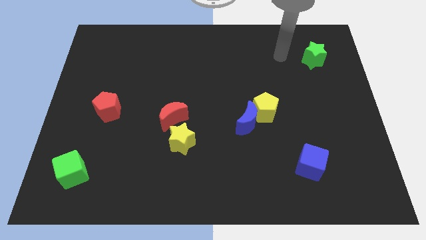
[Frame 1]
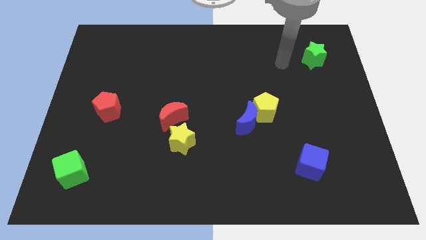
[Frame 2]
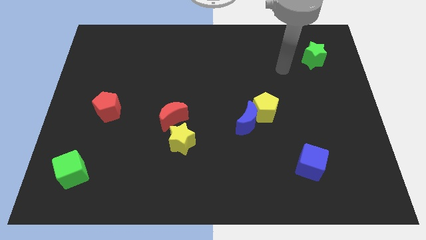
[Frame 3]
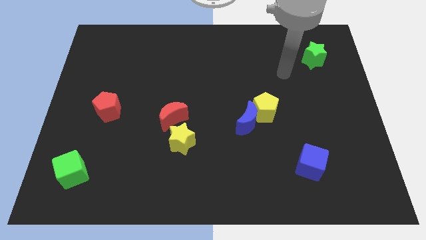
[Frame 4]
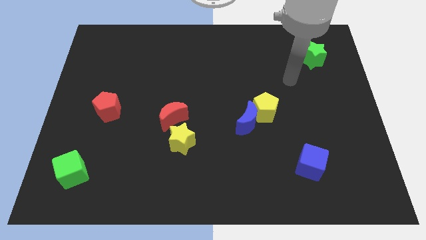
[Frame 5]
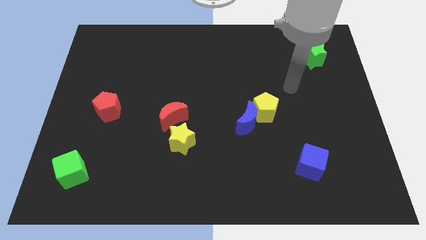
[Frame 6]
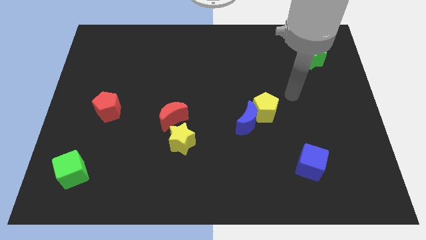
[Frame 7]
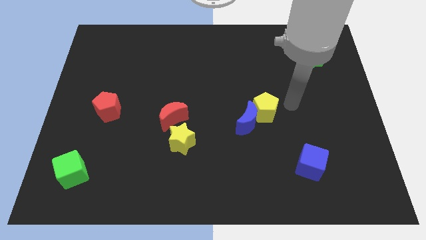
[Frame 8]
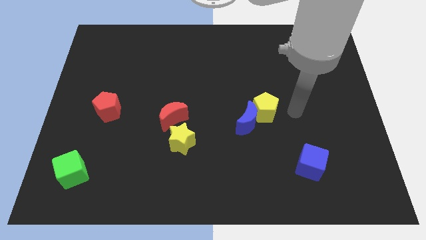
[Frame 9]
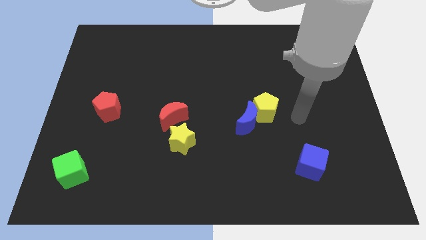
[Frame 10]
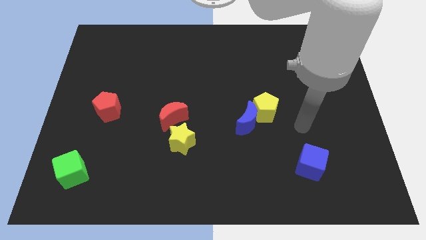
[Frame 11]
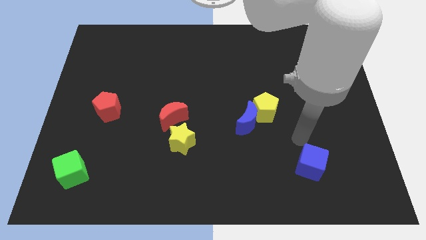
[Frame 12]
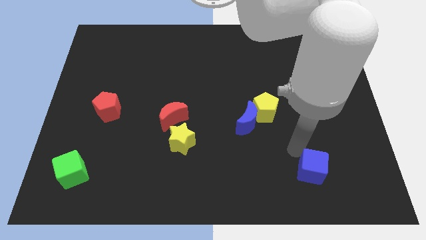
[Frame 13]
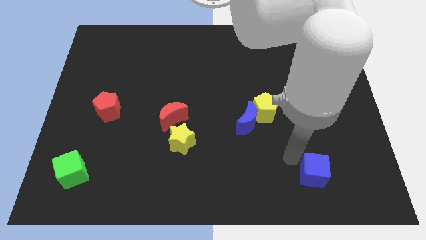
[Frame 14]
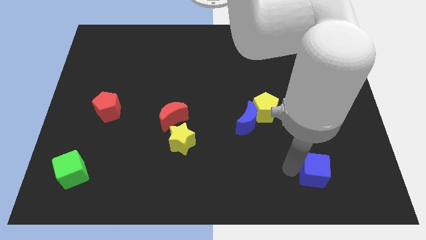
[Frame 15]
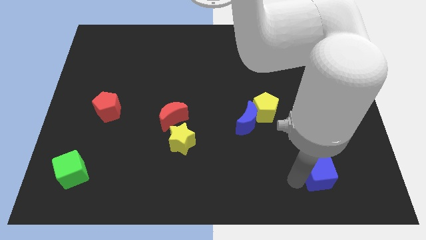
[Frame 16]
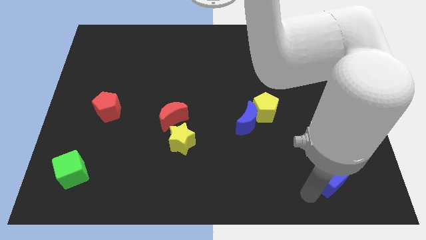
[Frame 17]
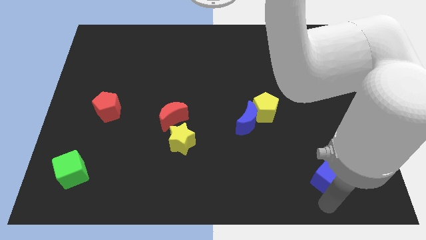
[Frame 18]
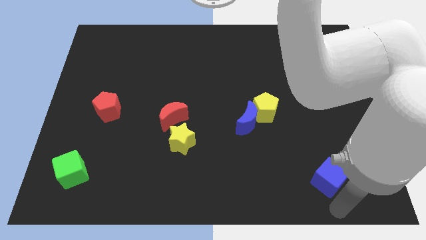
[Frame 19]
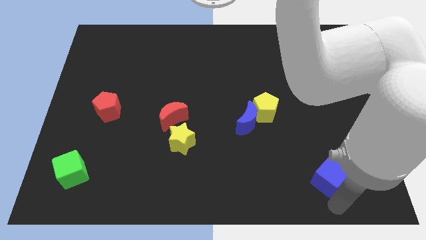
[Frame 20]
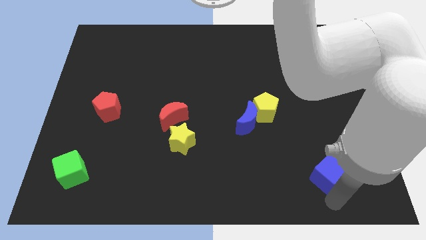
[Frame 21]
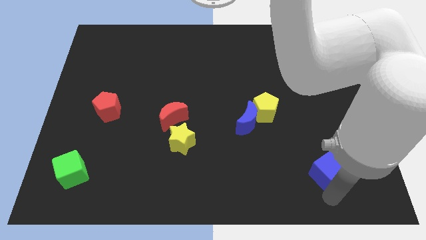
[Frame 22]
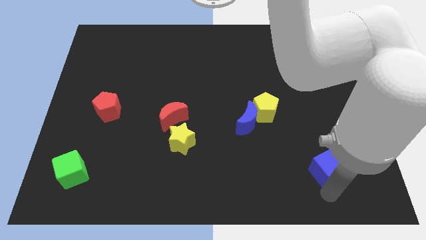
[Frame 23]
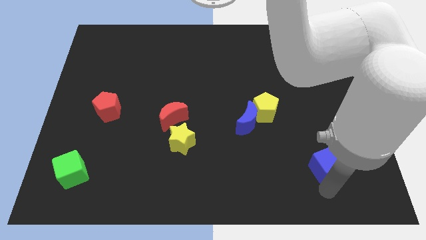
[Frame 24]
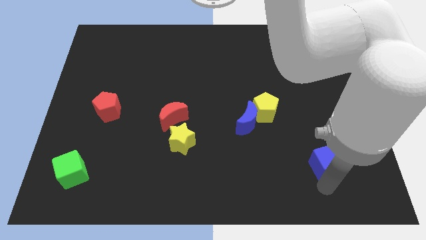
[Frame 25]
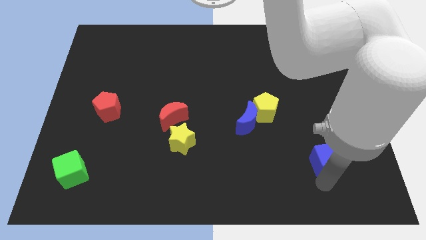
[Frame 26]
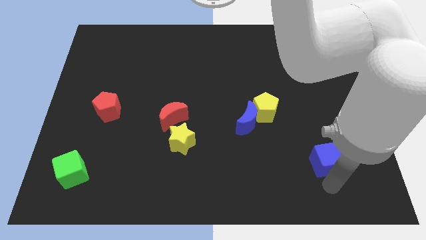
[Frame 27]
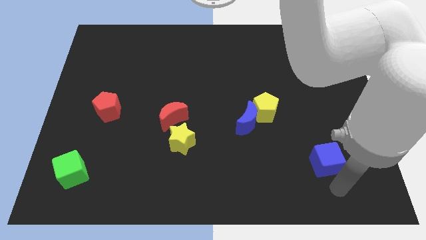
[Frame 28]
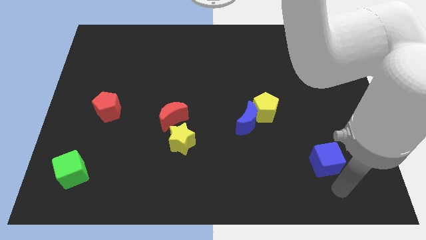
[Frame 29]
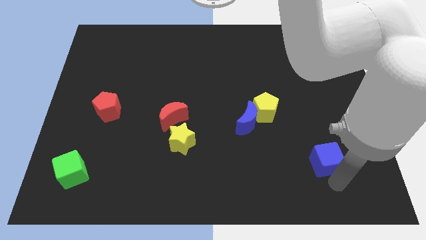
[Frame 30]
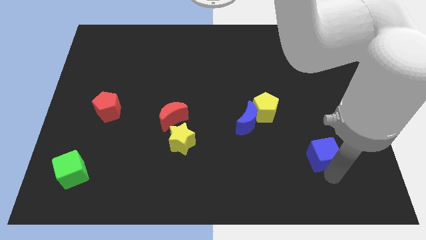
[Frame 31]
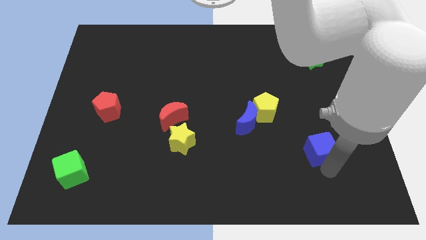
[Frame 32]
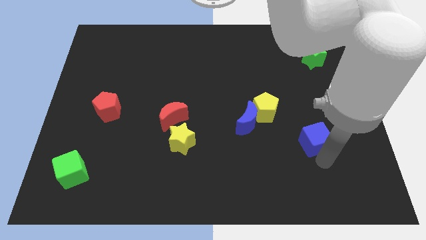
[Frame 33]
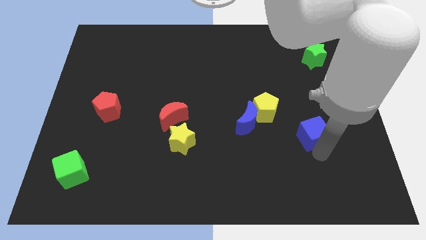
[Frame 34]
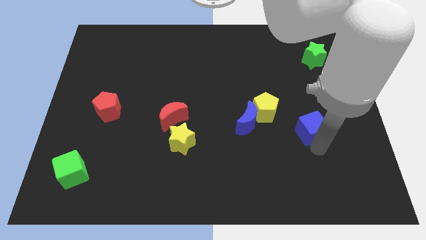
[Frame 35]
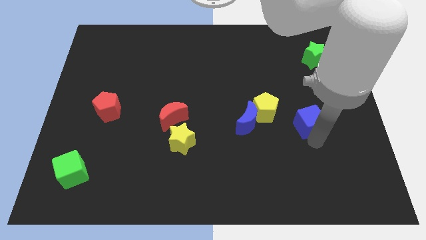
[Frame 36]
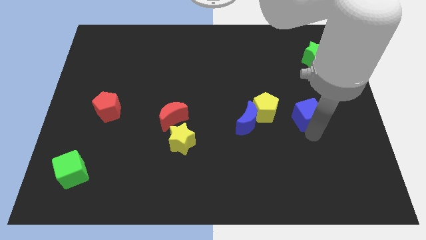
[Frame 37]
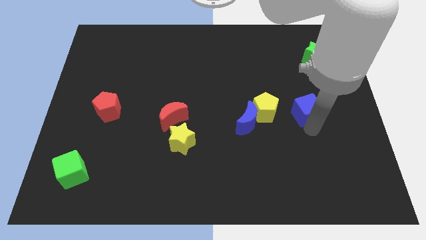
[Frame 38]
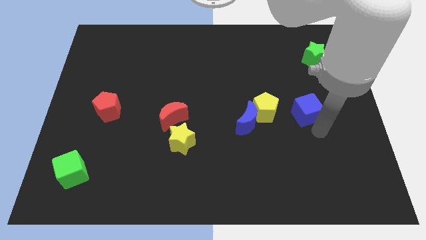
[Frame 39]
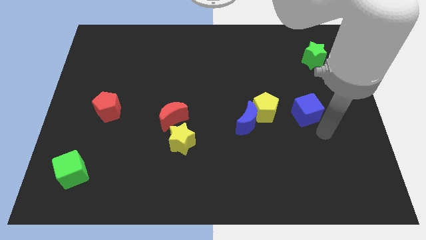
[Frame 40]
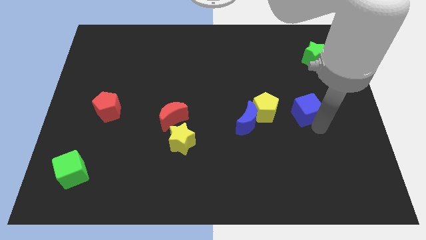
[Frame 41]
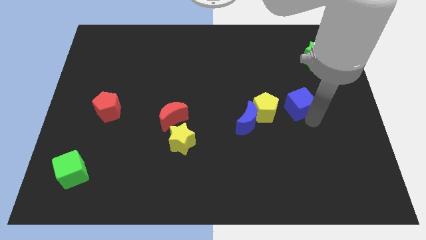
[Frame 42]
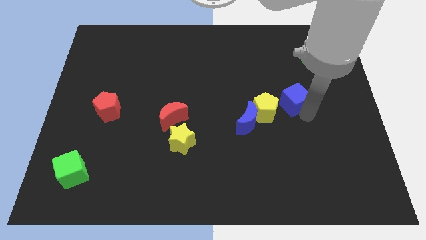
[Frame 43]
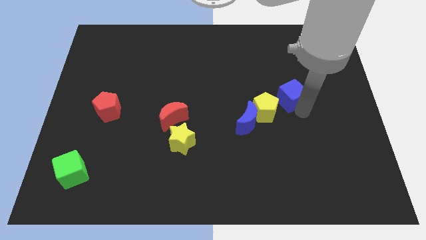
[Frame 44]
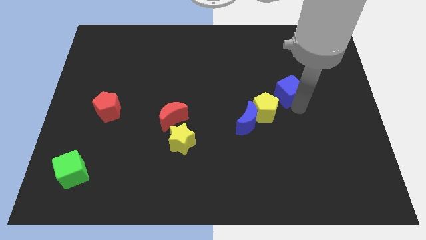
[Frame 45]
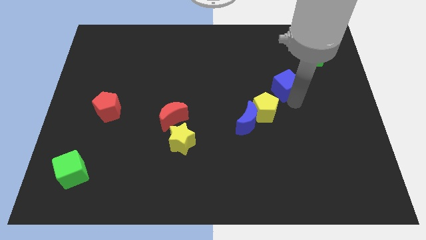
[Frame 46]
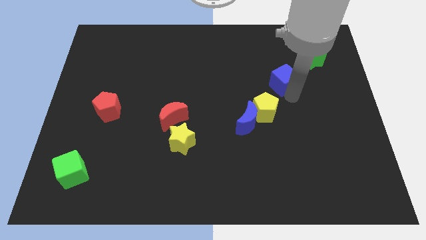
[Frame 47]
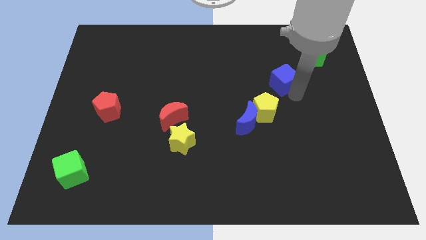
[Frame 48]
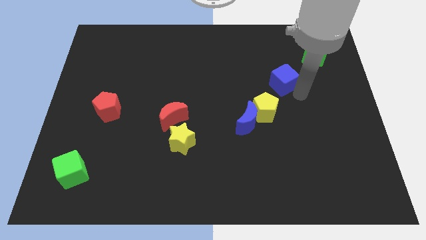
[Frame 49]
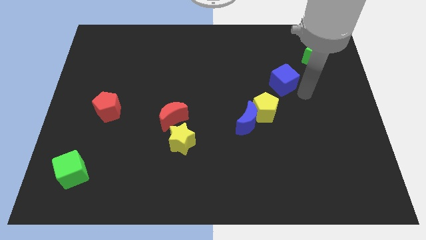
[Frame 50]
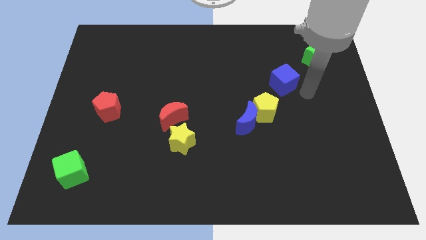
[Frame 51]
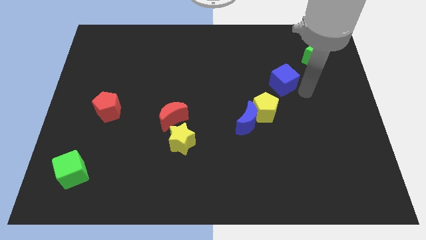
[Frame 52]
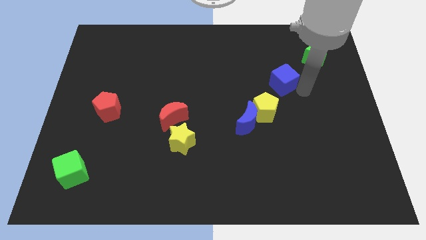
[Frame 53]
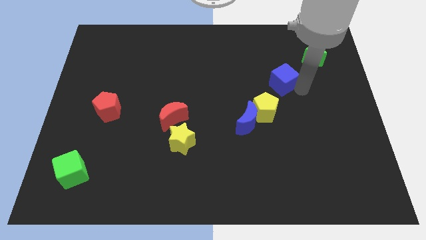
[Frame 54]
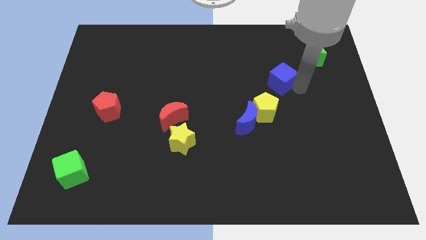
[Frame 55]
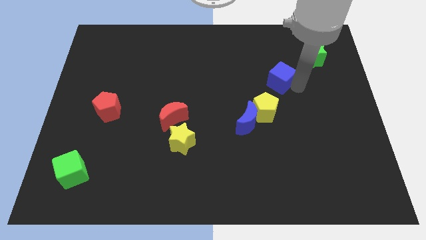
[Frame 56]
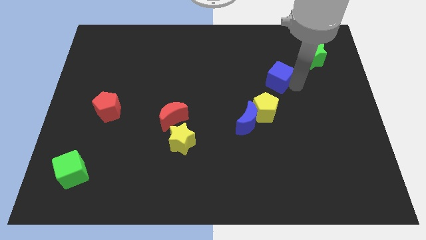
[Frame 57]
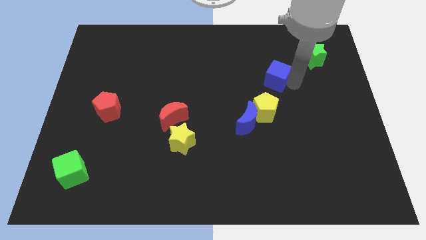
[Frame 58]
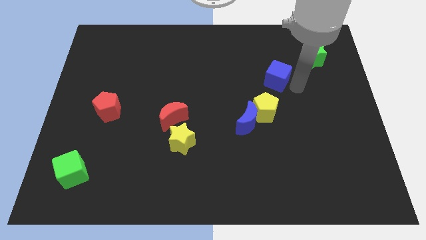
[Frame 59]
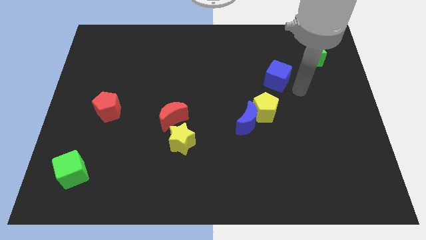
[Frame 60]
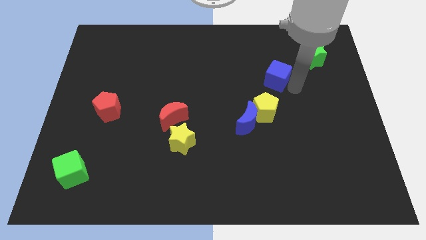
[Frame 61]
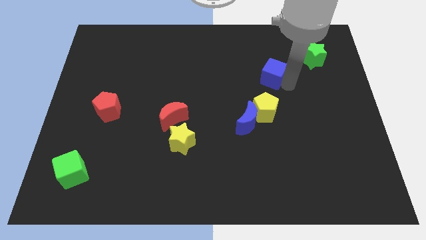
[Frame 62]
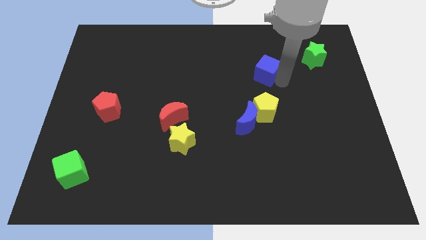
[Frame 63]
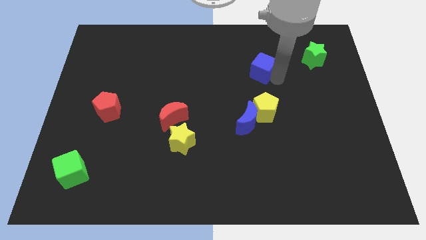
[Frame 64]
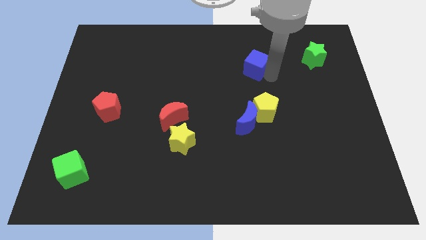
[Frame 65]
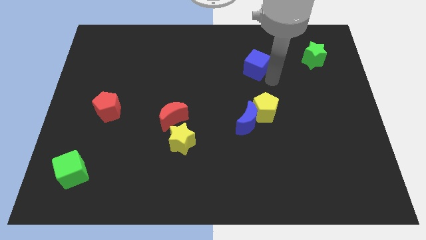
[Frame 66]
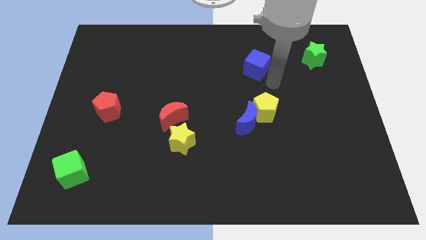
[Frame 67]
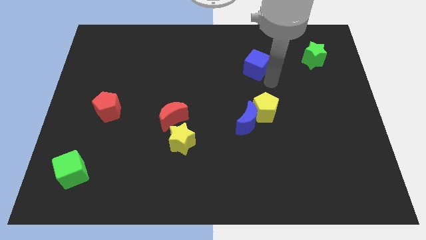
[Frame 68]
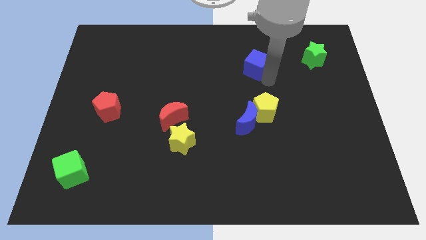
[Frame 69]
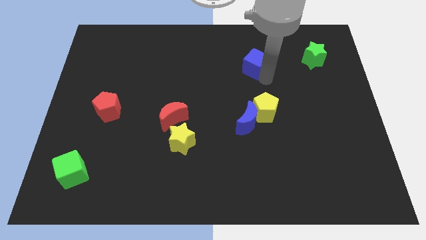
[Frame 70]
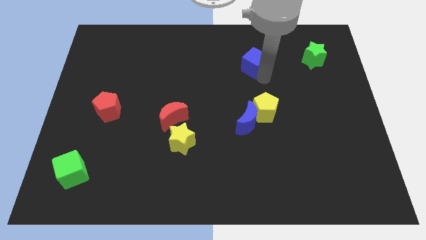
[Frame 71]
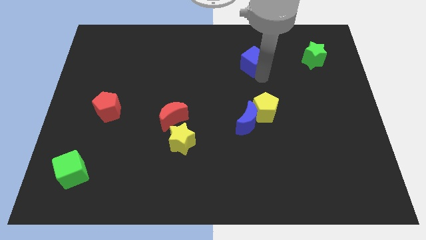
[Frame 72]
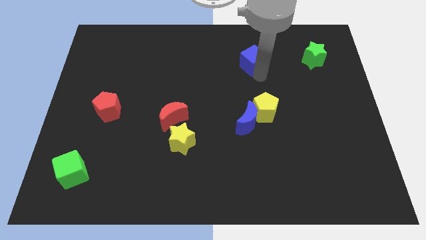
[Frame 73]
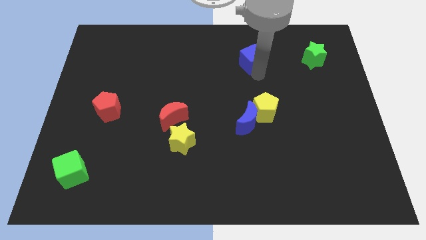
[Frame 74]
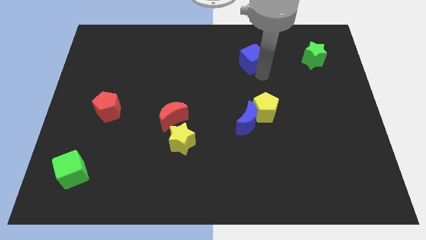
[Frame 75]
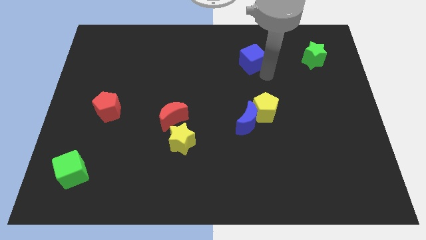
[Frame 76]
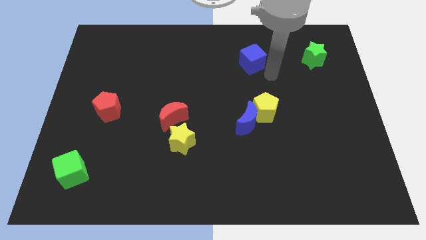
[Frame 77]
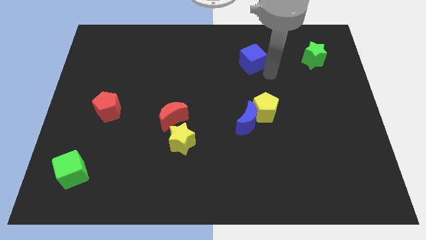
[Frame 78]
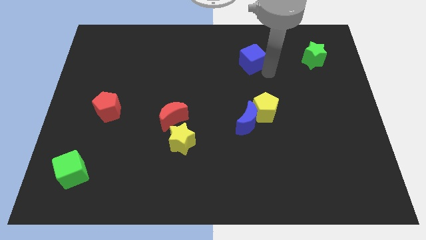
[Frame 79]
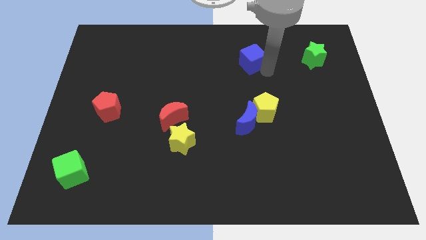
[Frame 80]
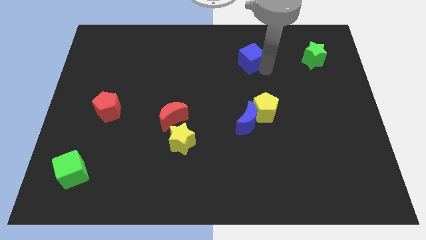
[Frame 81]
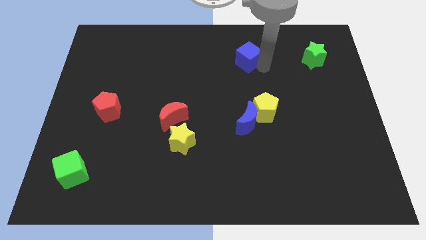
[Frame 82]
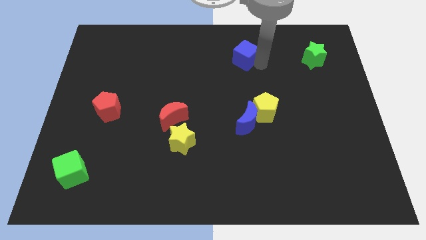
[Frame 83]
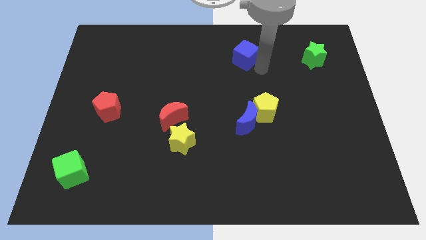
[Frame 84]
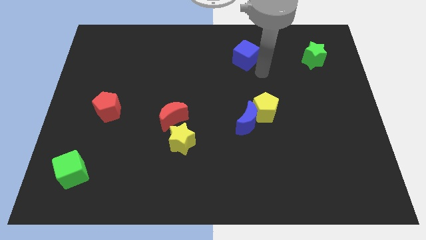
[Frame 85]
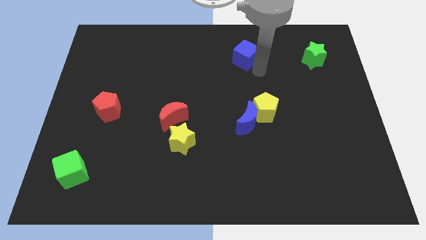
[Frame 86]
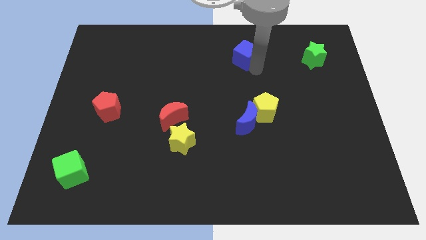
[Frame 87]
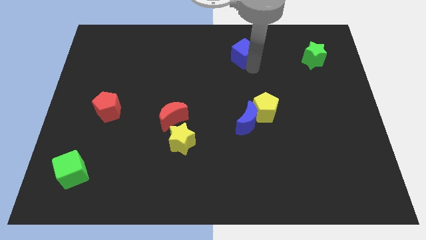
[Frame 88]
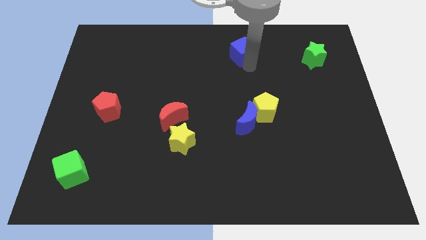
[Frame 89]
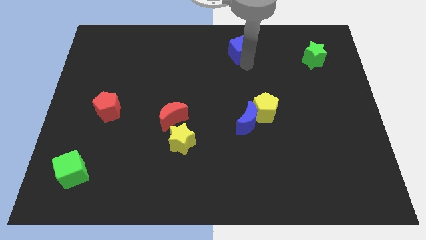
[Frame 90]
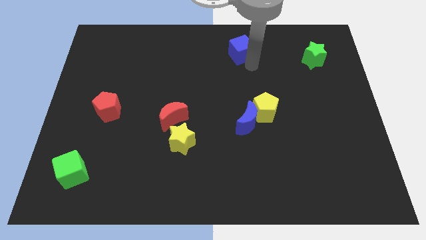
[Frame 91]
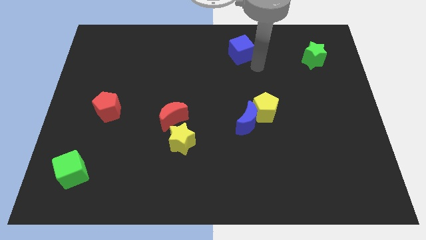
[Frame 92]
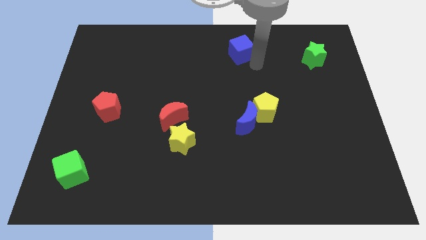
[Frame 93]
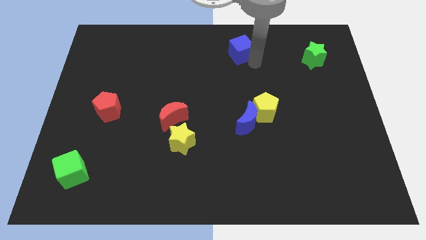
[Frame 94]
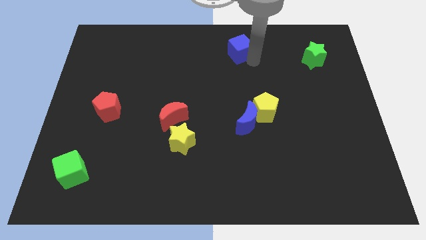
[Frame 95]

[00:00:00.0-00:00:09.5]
move the blue cube to the top
